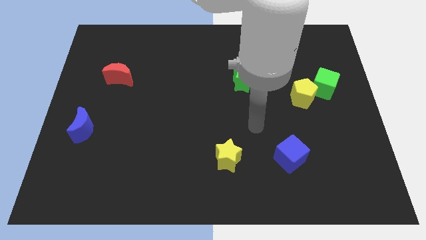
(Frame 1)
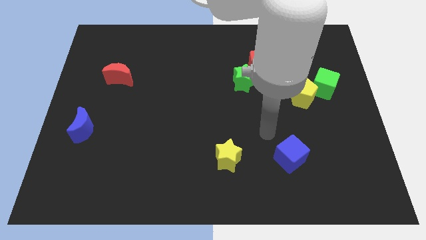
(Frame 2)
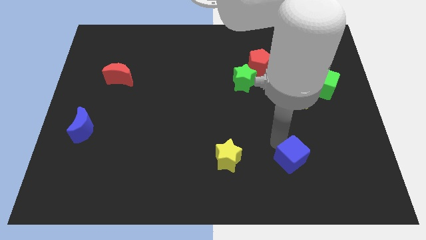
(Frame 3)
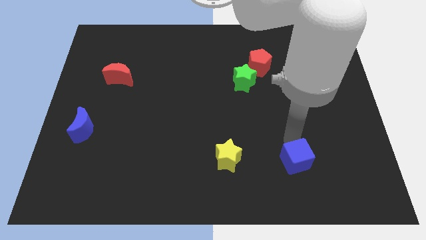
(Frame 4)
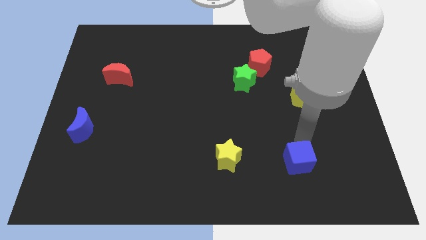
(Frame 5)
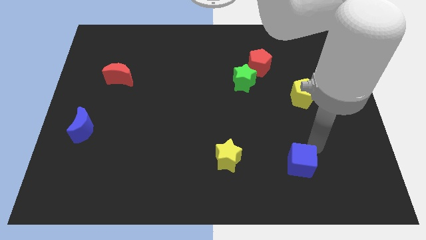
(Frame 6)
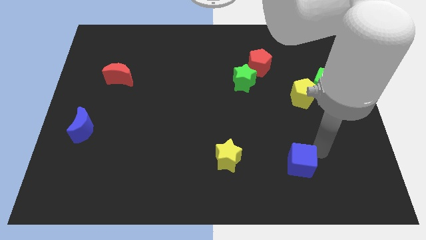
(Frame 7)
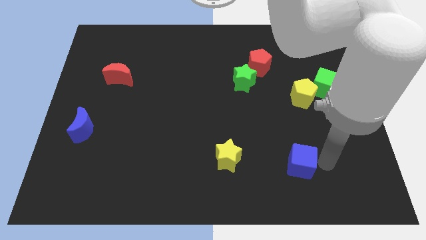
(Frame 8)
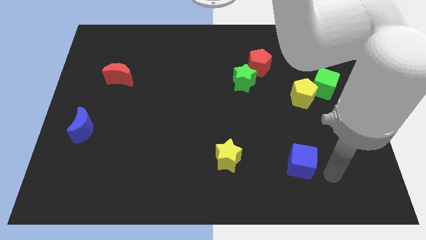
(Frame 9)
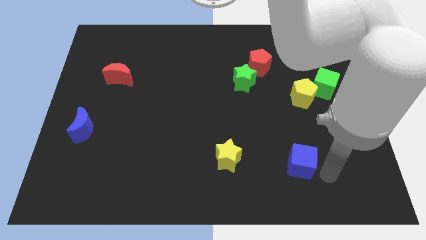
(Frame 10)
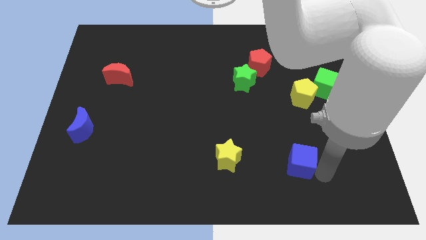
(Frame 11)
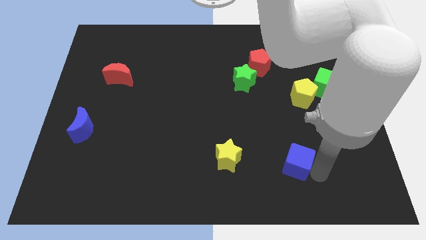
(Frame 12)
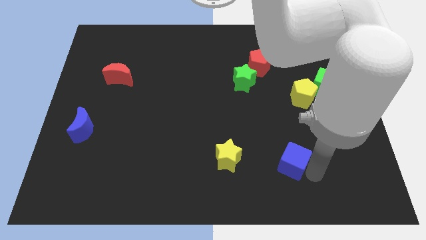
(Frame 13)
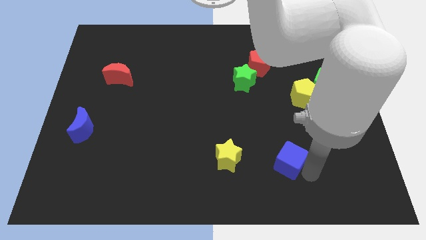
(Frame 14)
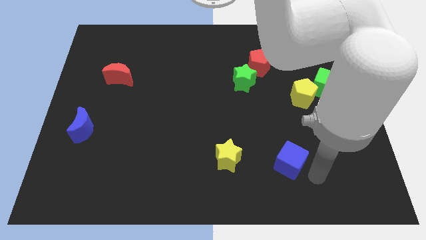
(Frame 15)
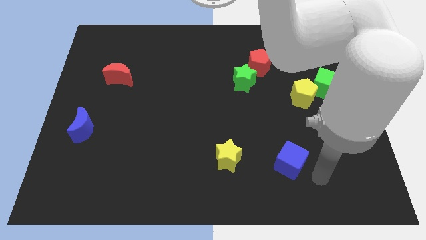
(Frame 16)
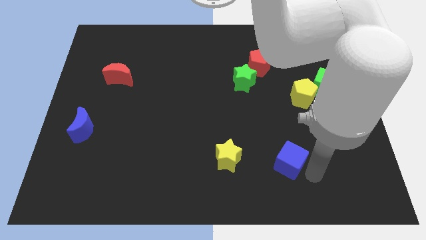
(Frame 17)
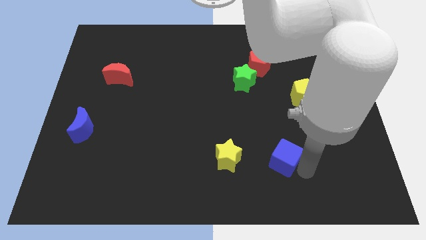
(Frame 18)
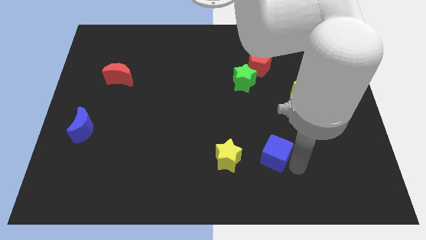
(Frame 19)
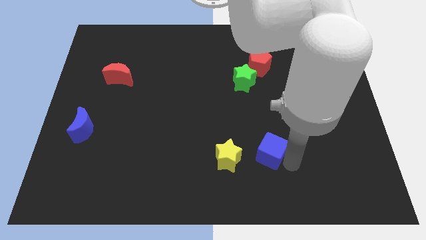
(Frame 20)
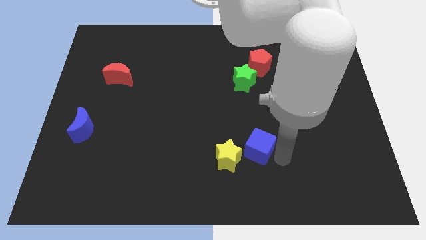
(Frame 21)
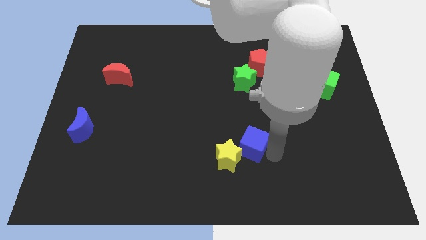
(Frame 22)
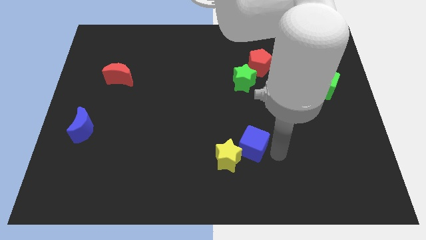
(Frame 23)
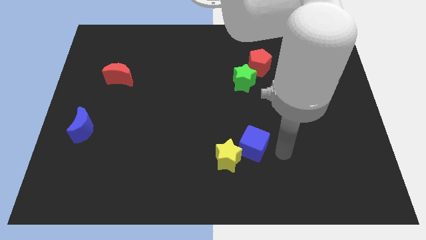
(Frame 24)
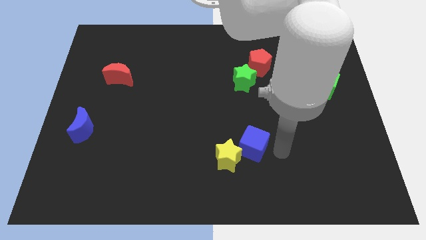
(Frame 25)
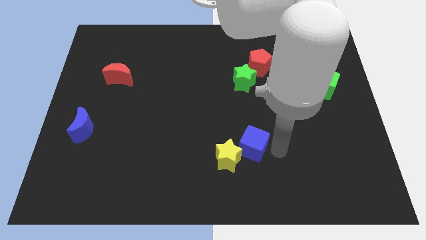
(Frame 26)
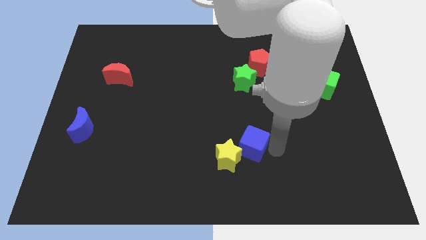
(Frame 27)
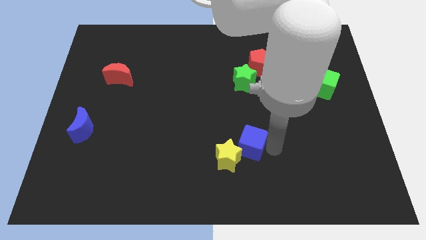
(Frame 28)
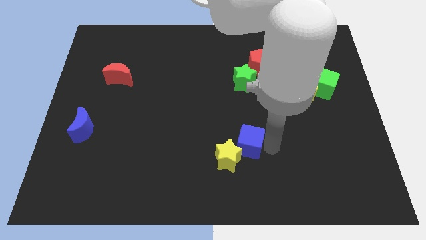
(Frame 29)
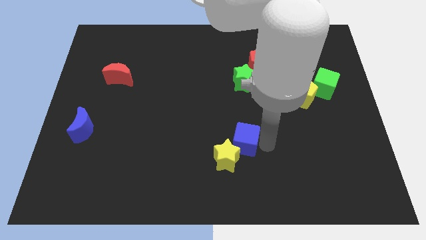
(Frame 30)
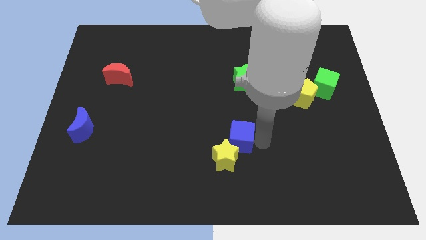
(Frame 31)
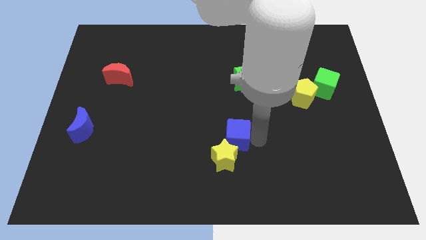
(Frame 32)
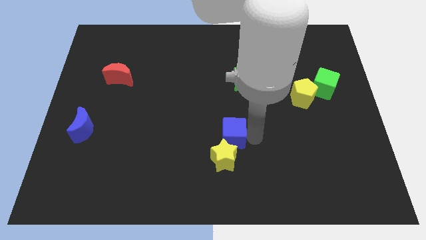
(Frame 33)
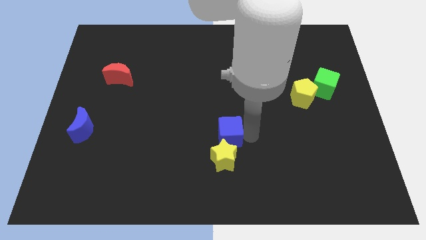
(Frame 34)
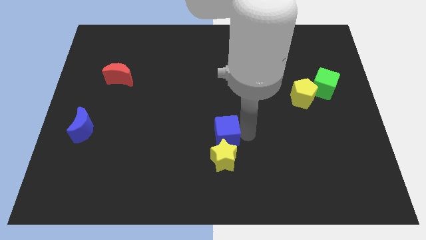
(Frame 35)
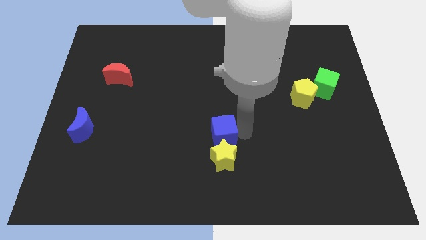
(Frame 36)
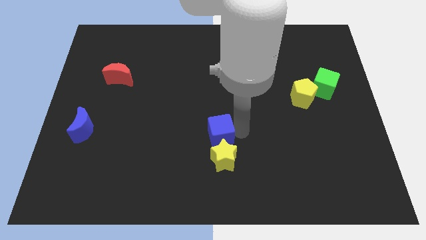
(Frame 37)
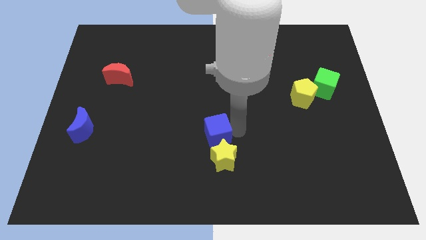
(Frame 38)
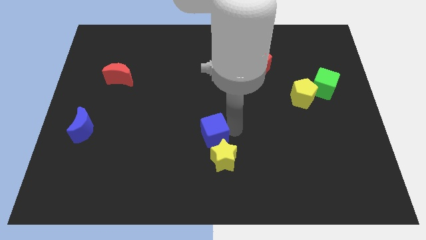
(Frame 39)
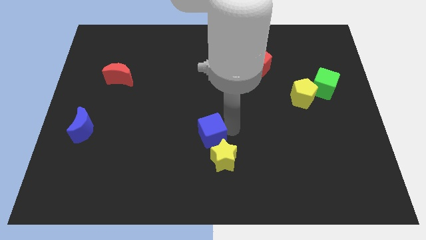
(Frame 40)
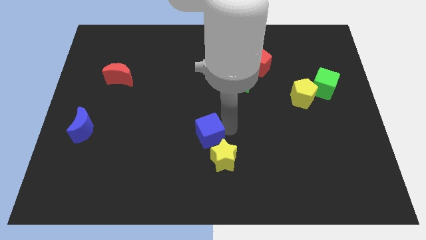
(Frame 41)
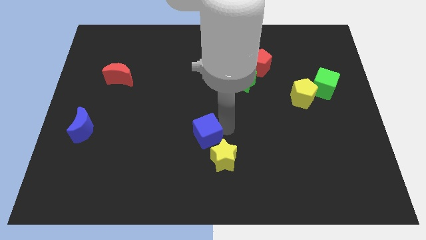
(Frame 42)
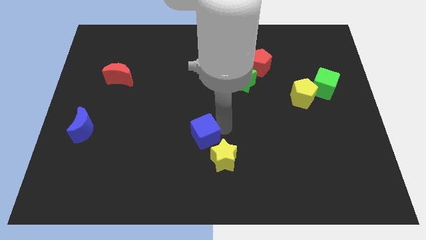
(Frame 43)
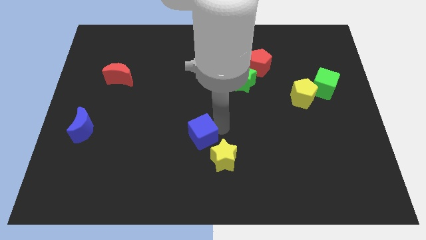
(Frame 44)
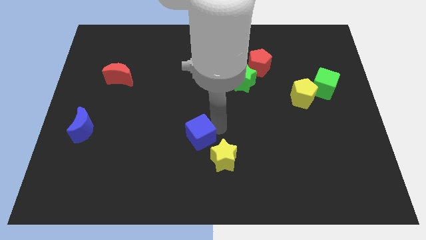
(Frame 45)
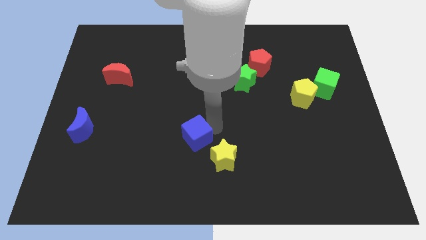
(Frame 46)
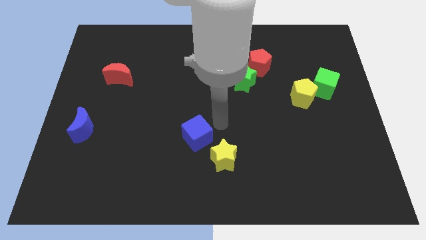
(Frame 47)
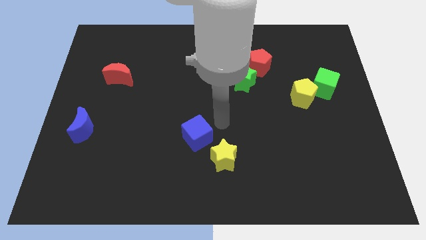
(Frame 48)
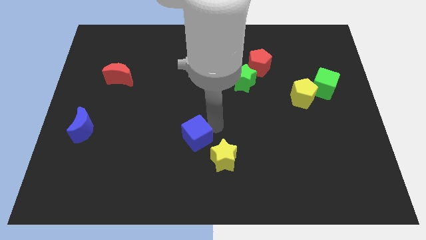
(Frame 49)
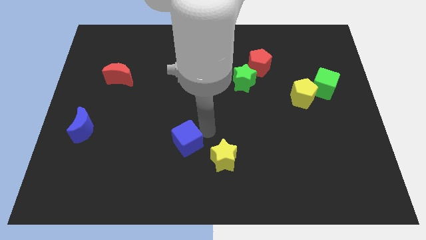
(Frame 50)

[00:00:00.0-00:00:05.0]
slide the blue cube to the left

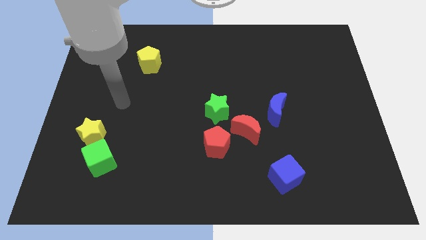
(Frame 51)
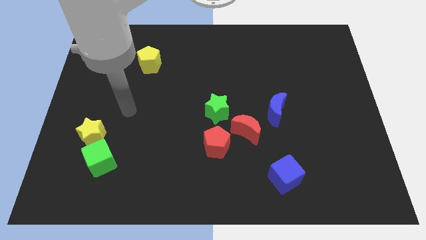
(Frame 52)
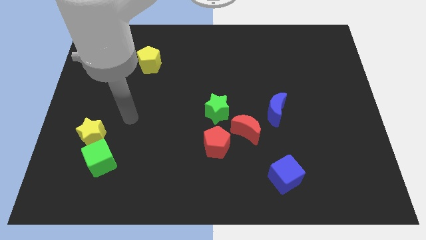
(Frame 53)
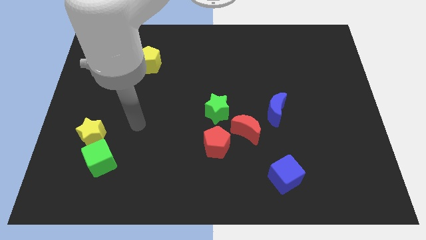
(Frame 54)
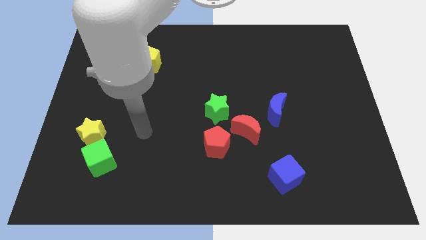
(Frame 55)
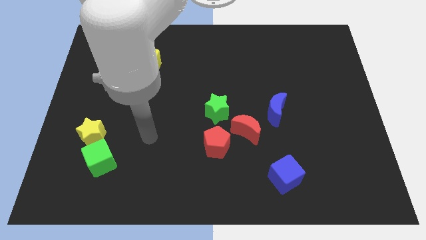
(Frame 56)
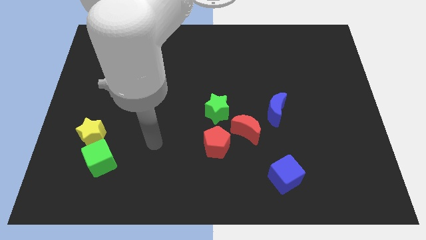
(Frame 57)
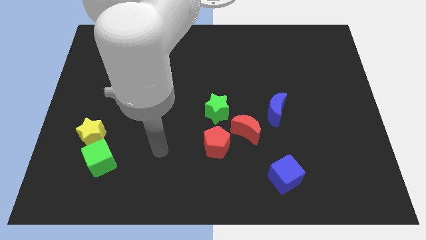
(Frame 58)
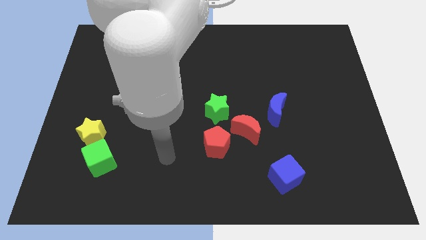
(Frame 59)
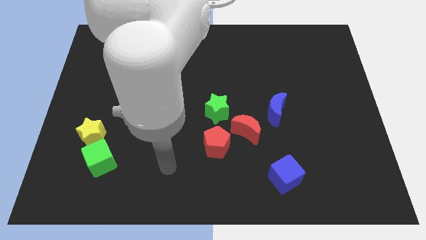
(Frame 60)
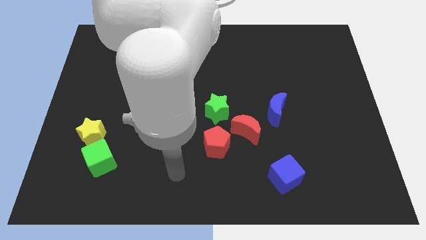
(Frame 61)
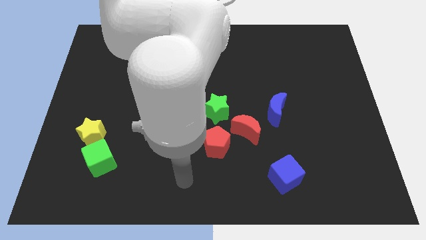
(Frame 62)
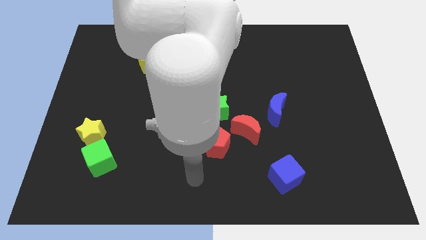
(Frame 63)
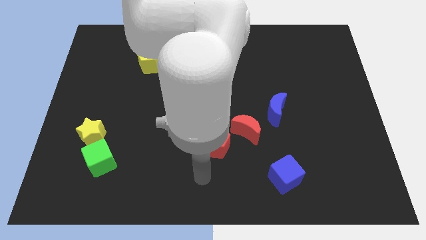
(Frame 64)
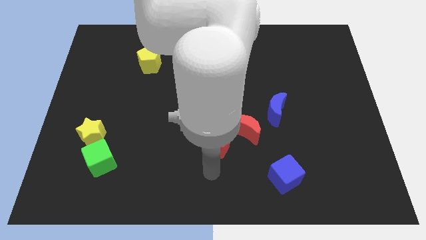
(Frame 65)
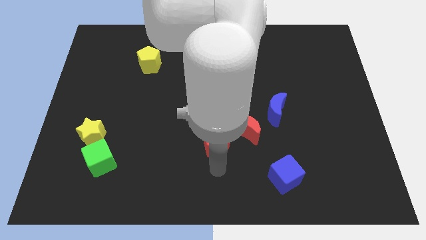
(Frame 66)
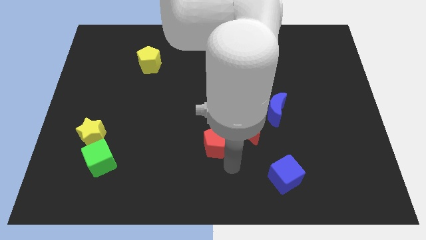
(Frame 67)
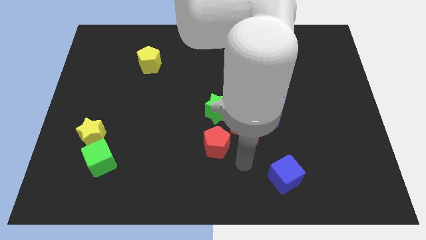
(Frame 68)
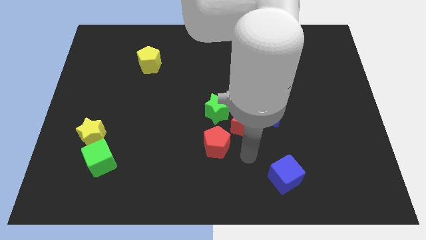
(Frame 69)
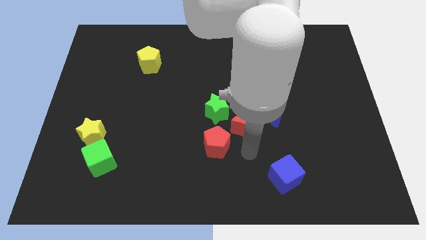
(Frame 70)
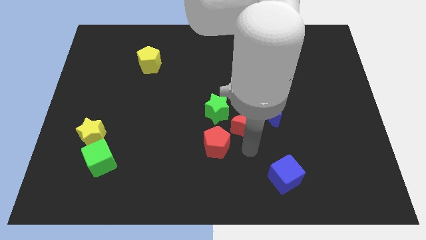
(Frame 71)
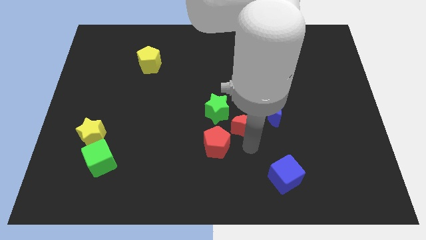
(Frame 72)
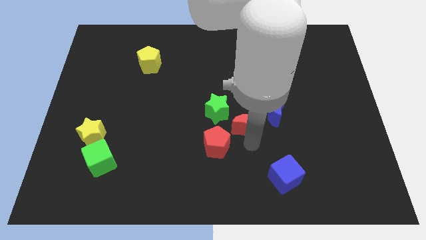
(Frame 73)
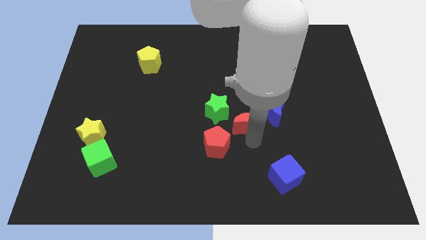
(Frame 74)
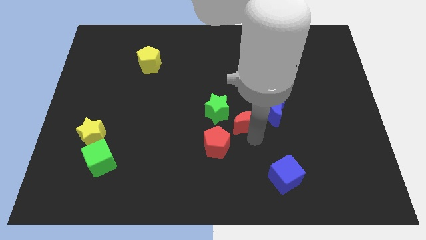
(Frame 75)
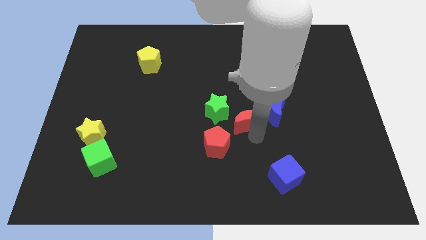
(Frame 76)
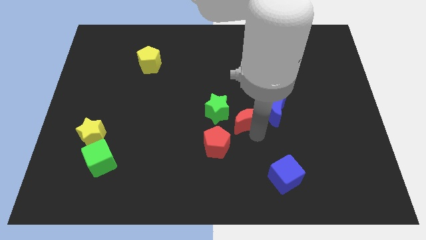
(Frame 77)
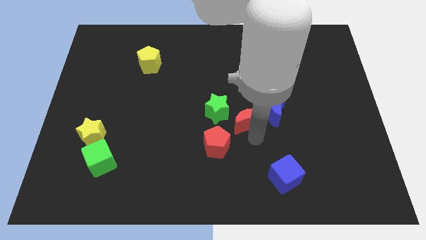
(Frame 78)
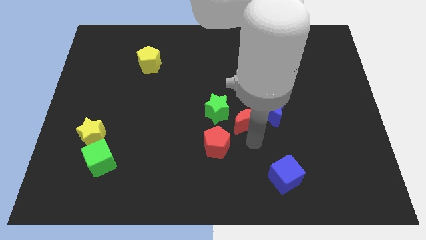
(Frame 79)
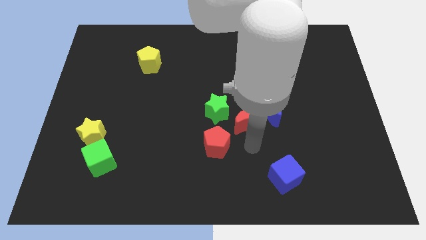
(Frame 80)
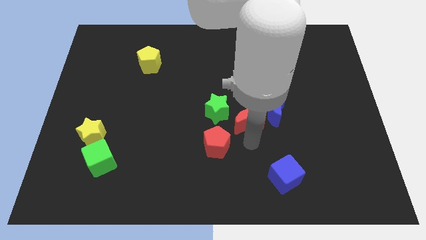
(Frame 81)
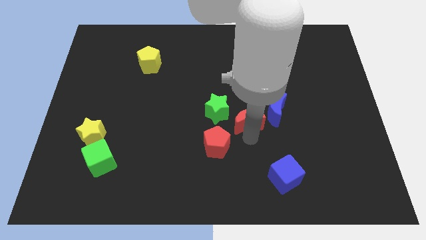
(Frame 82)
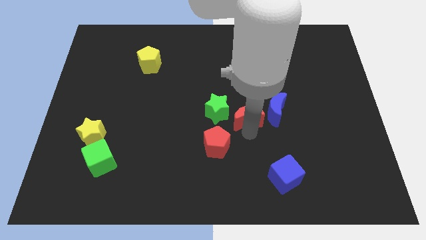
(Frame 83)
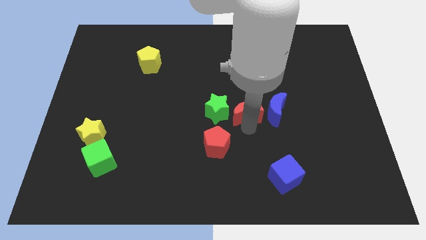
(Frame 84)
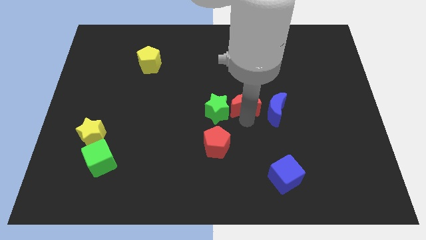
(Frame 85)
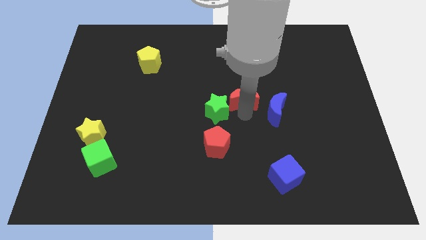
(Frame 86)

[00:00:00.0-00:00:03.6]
move the red moon slightly upwards
